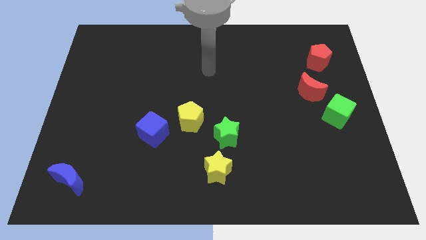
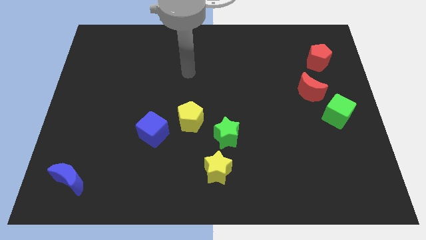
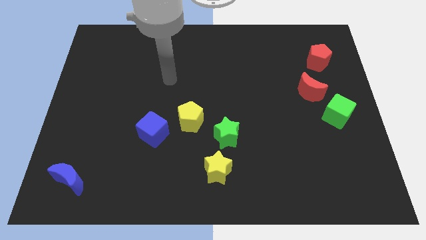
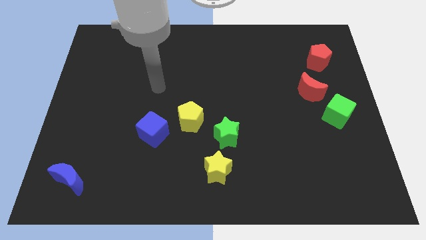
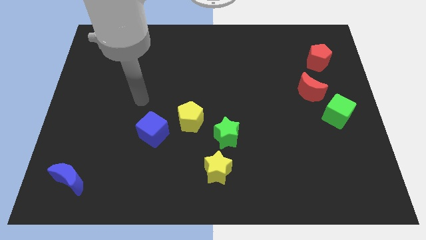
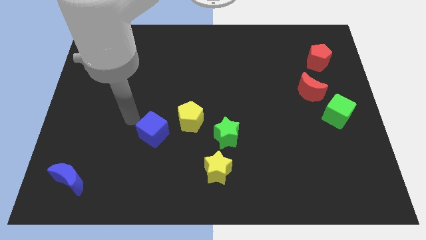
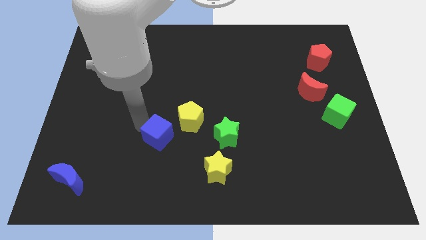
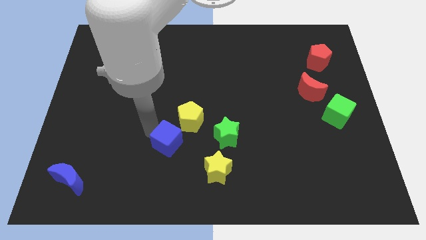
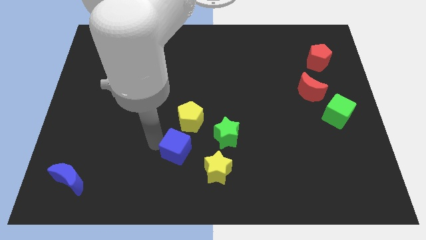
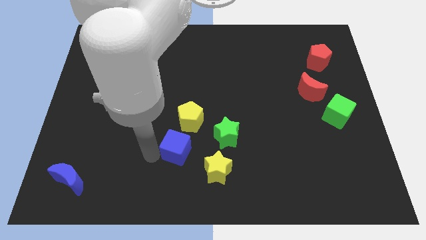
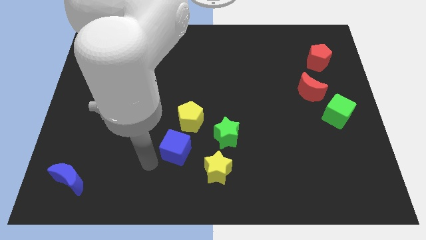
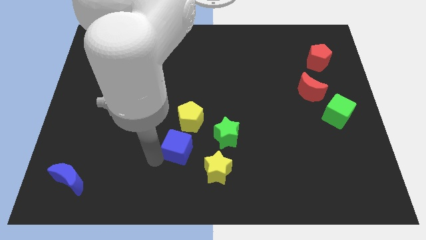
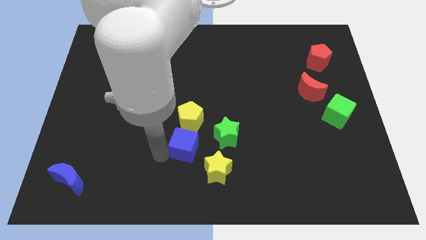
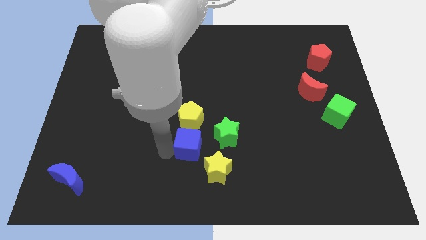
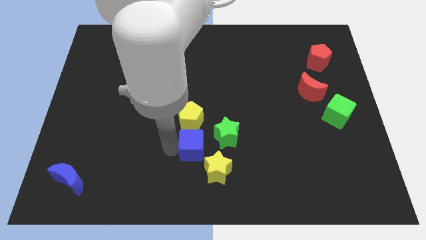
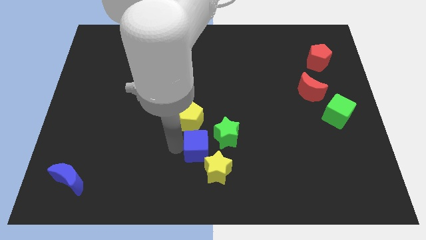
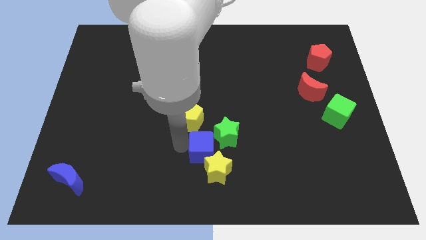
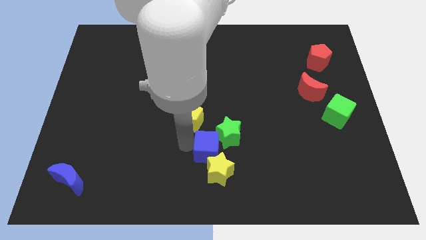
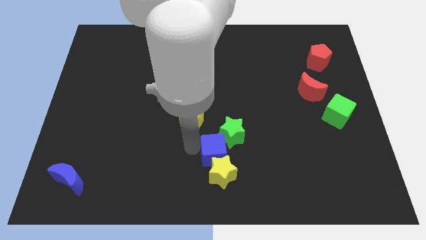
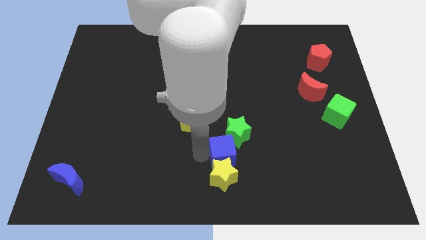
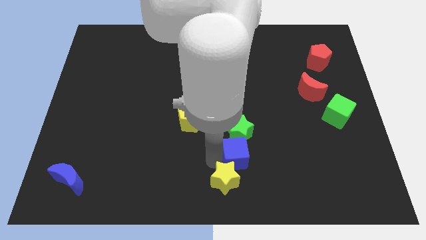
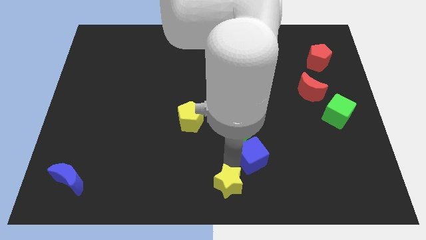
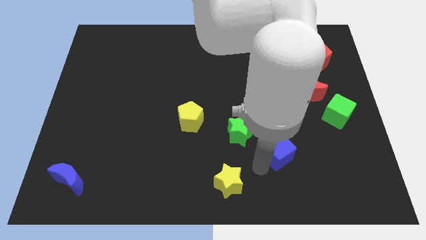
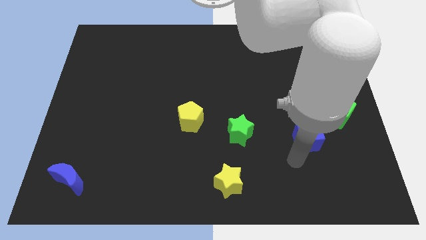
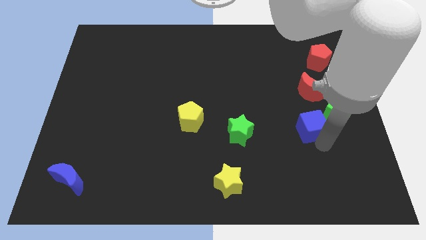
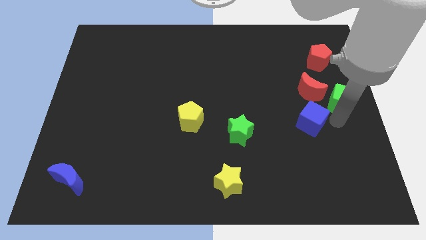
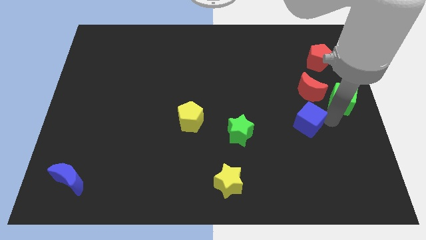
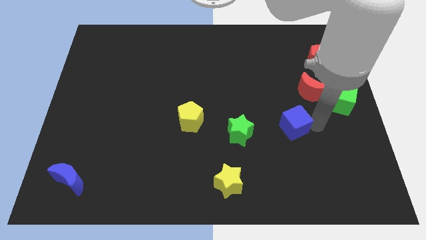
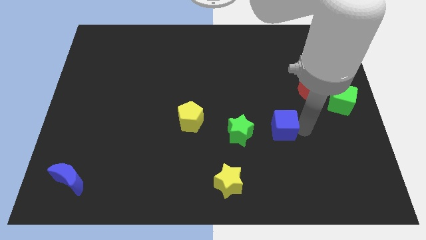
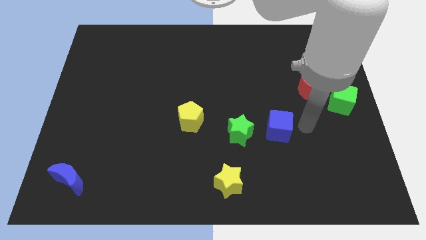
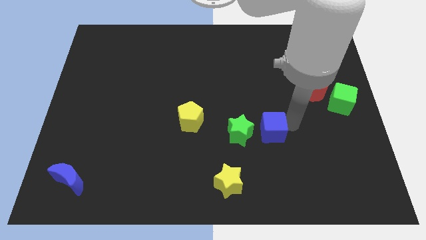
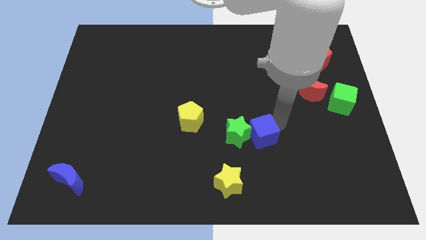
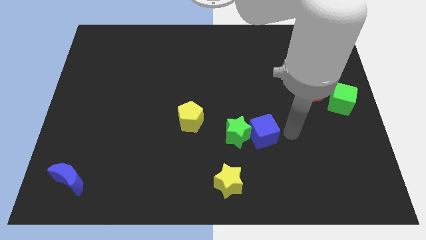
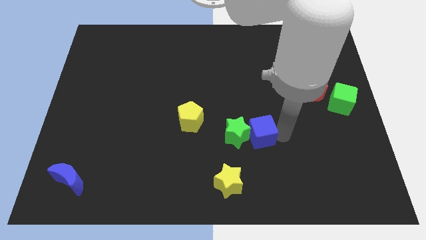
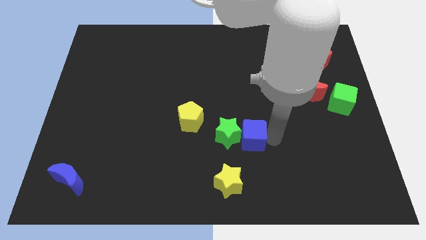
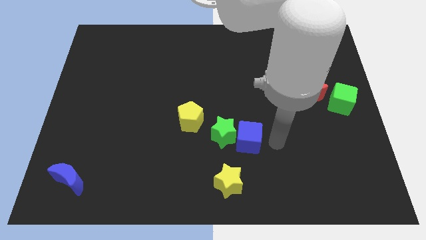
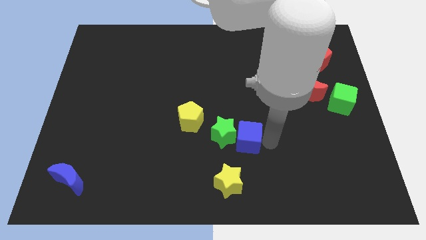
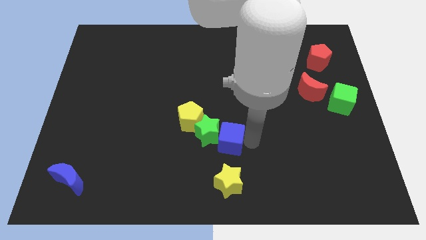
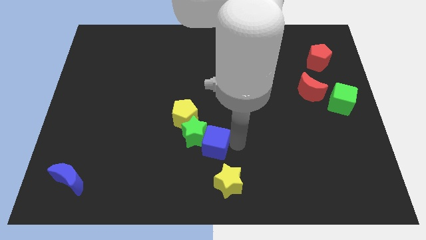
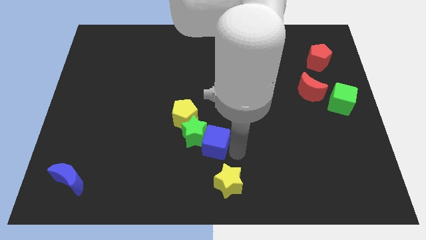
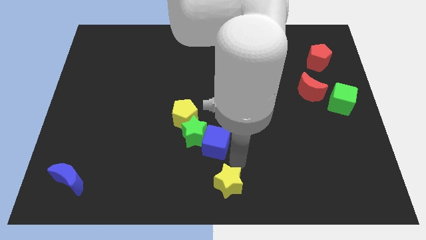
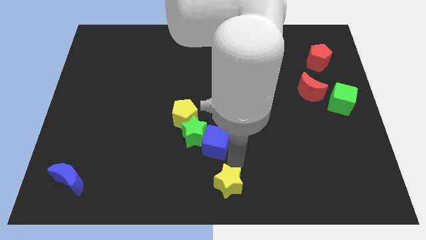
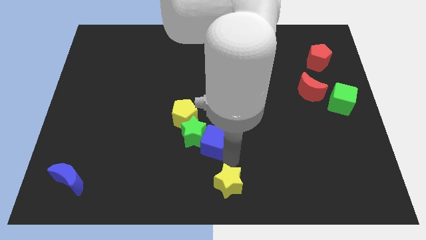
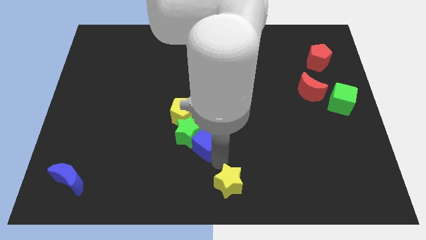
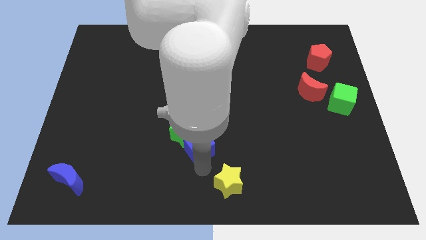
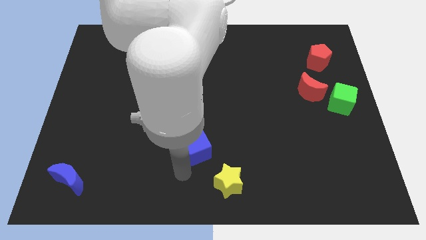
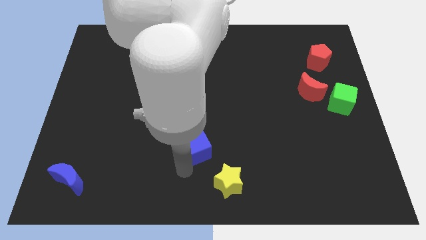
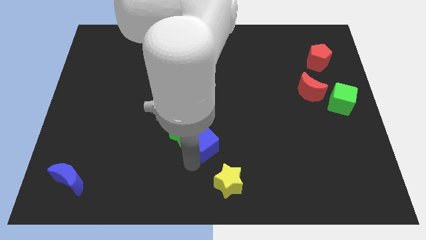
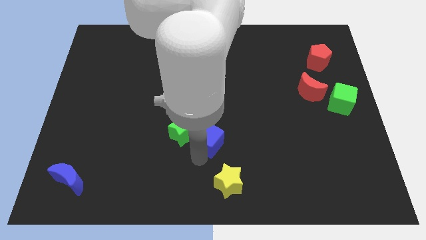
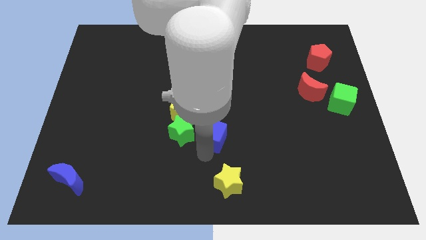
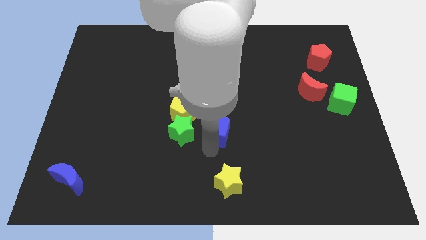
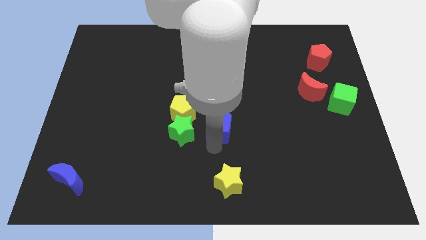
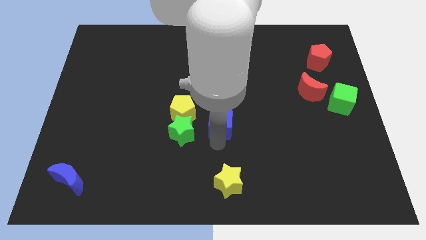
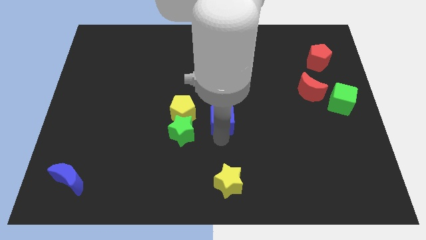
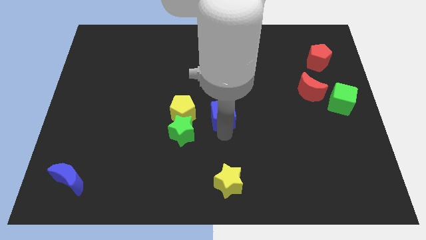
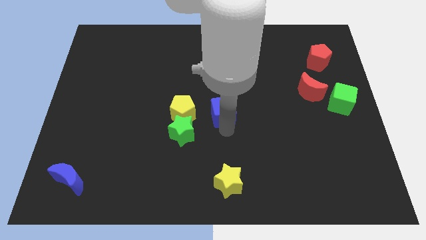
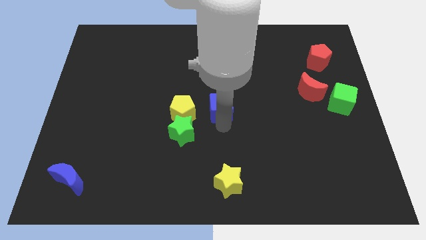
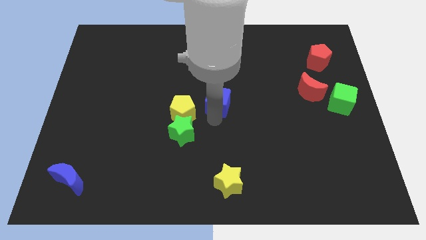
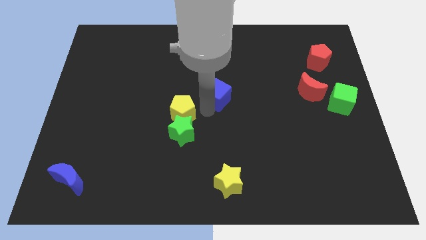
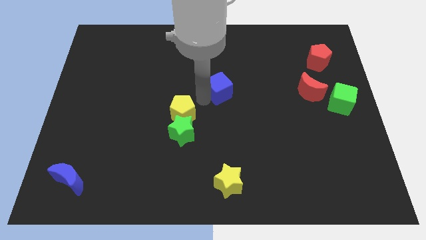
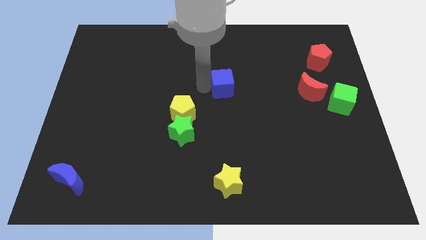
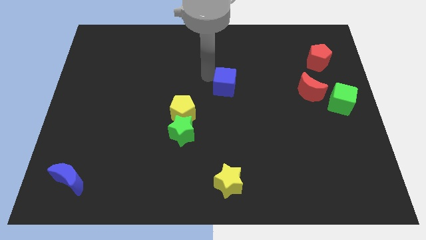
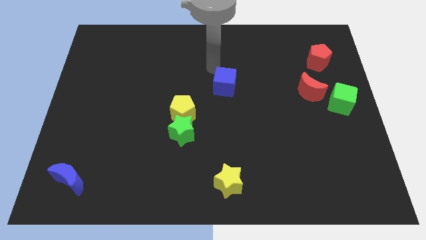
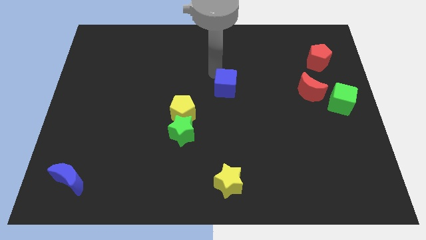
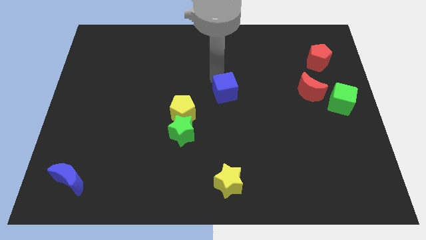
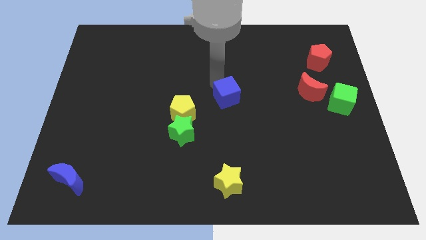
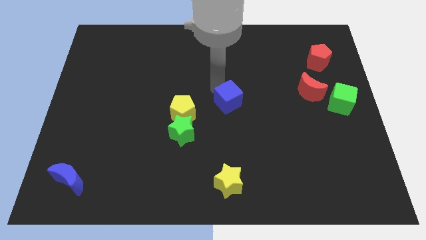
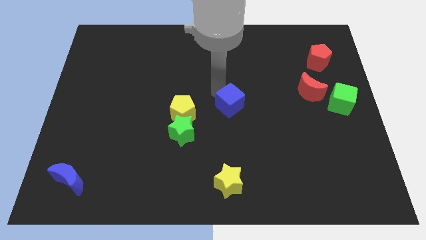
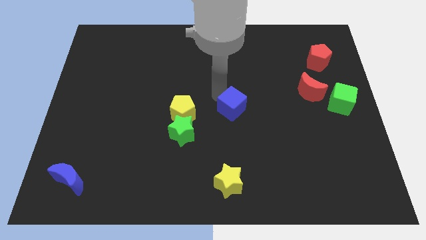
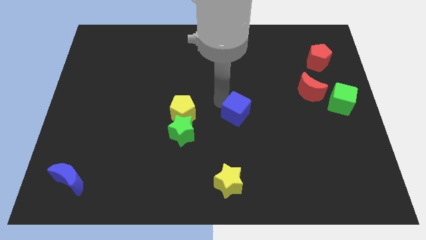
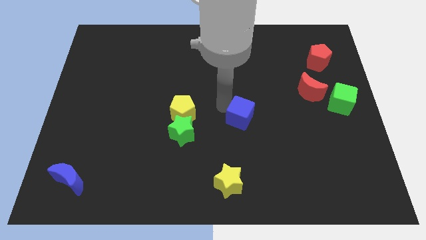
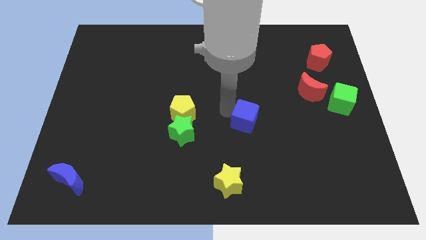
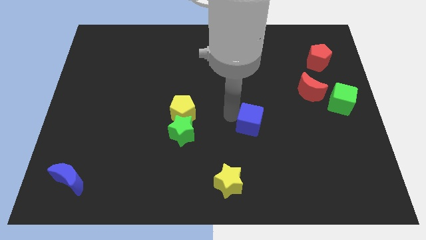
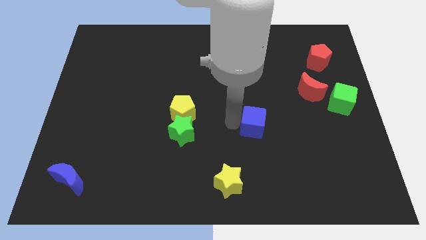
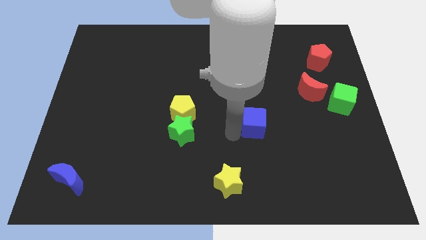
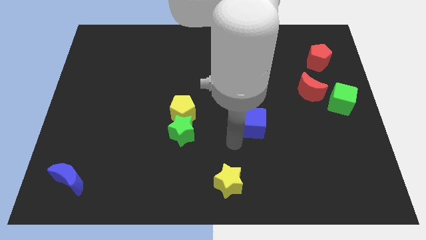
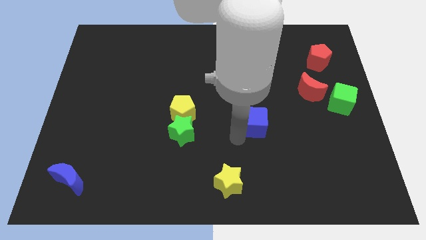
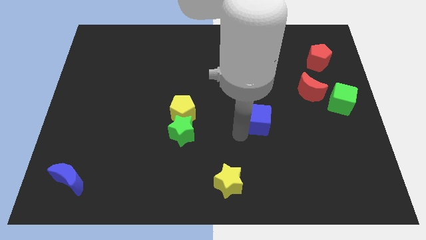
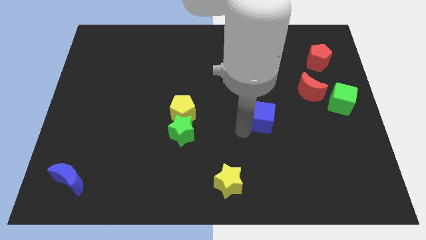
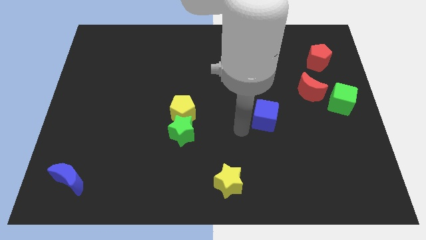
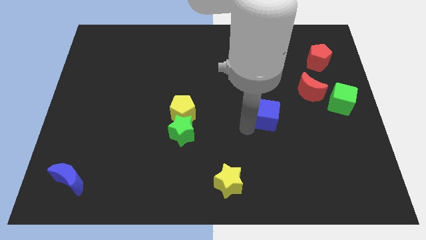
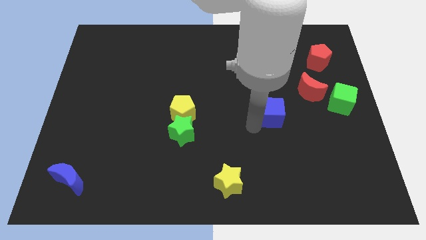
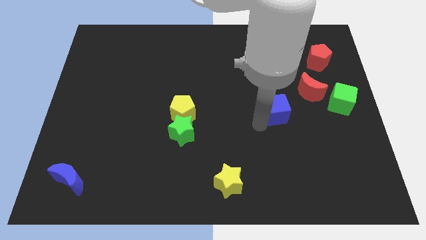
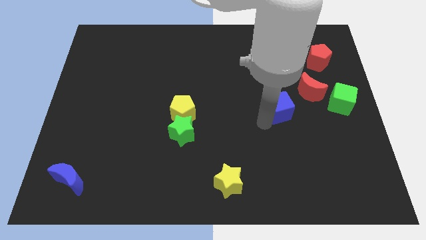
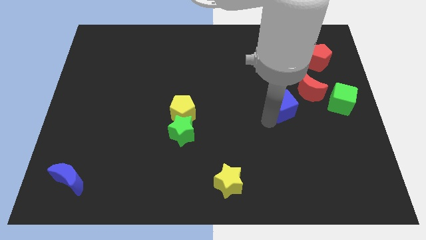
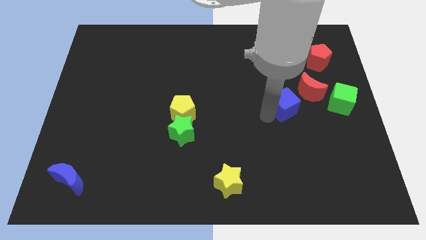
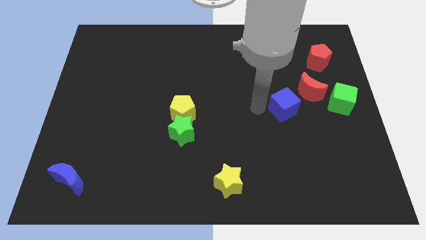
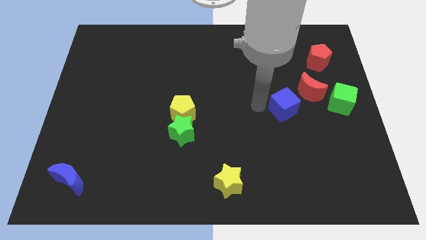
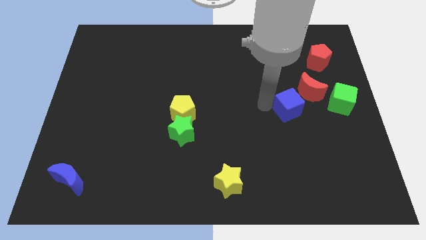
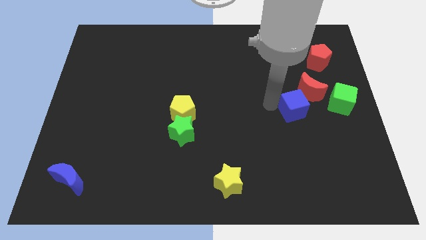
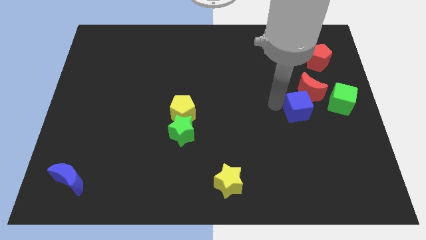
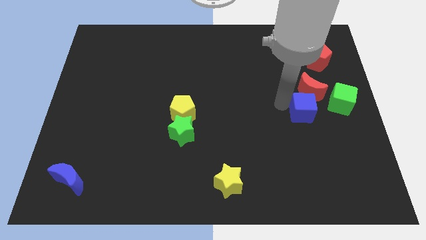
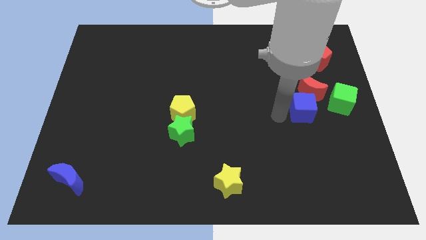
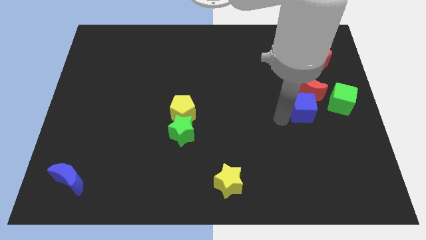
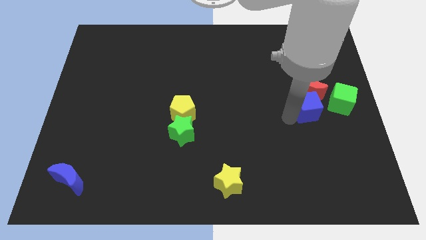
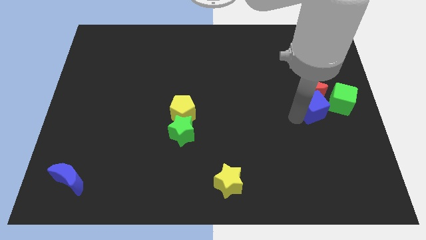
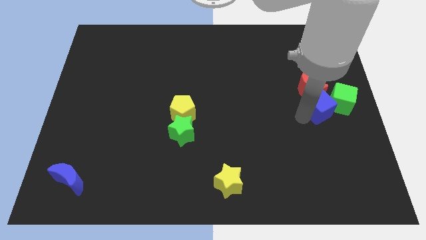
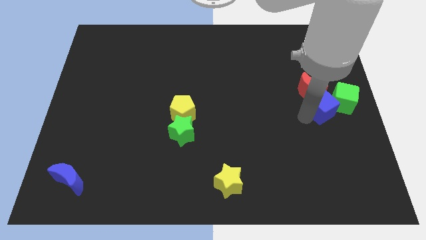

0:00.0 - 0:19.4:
put the blue cube to the right side
